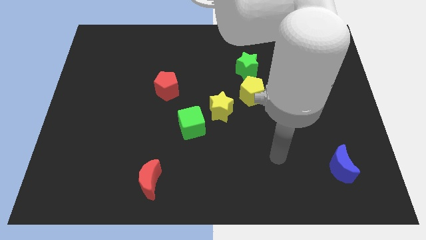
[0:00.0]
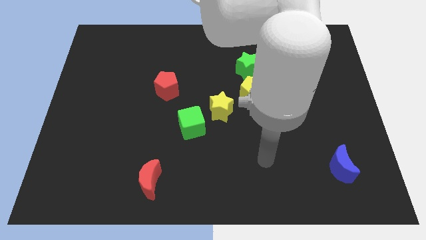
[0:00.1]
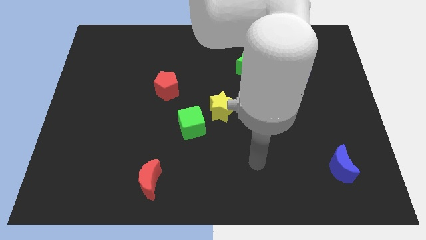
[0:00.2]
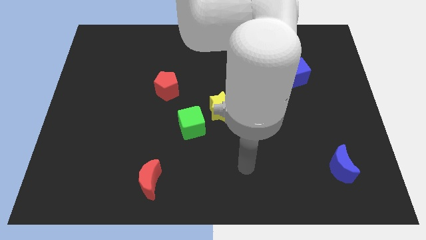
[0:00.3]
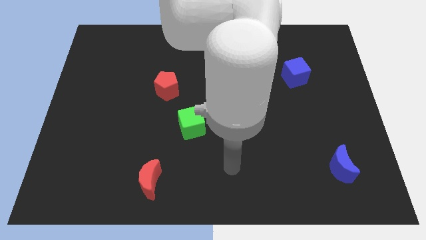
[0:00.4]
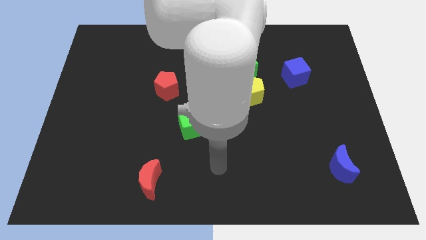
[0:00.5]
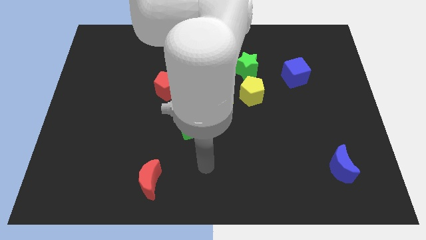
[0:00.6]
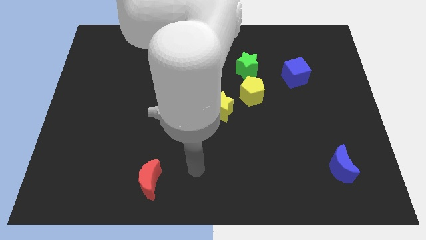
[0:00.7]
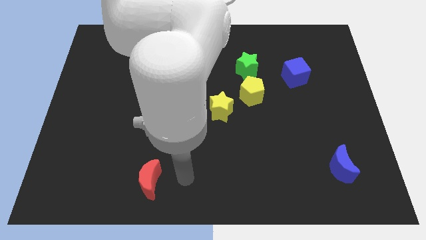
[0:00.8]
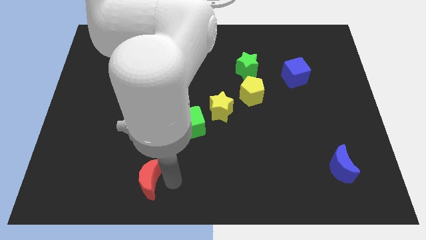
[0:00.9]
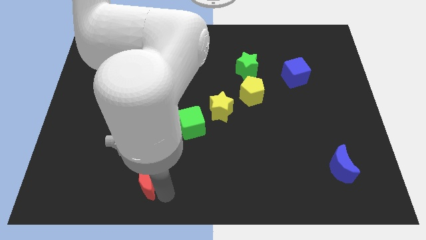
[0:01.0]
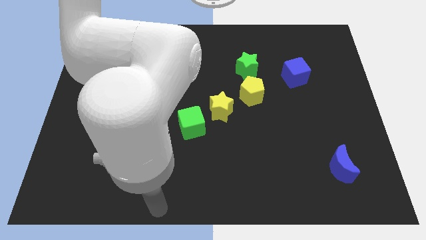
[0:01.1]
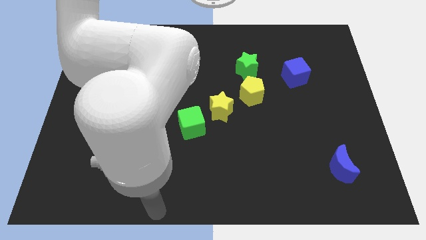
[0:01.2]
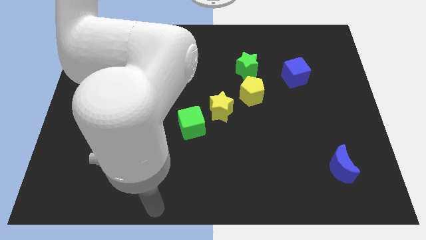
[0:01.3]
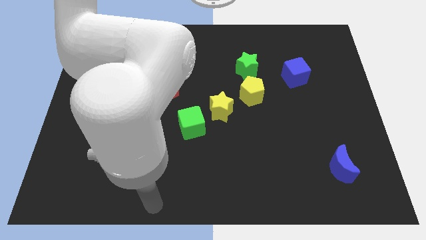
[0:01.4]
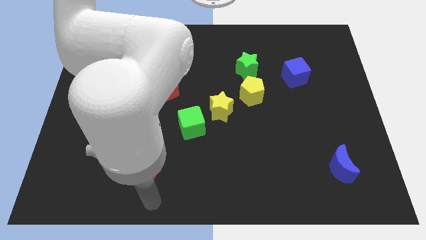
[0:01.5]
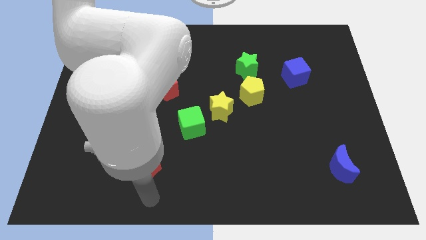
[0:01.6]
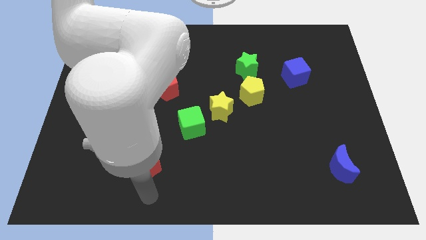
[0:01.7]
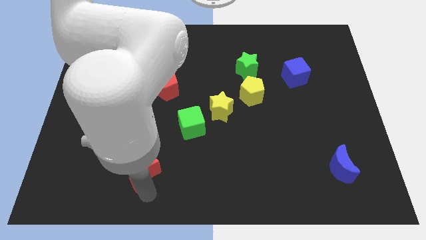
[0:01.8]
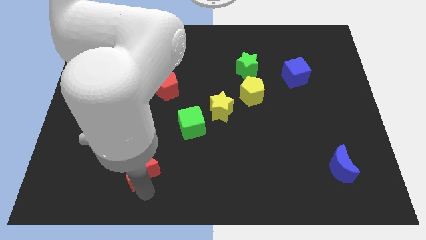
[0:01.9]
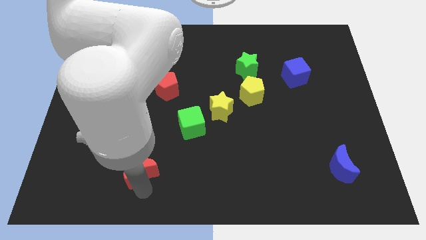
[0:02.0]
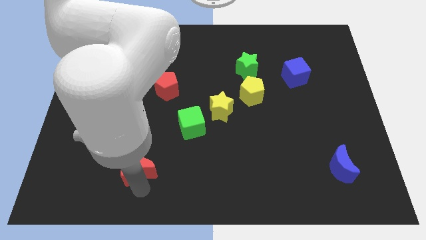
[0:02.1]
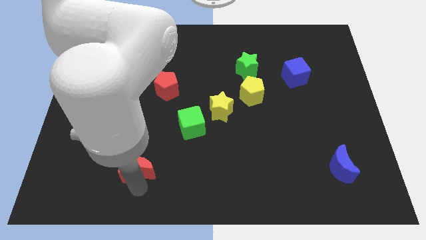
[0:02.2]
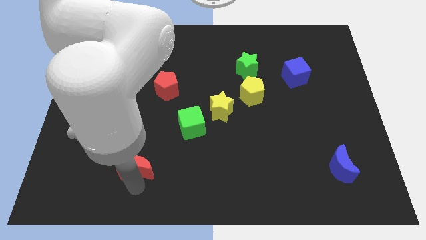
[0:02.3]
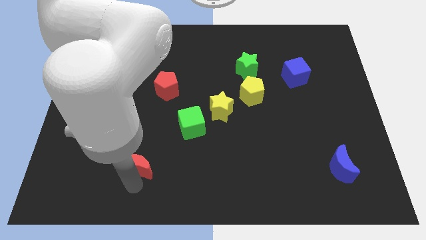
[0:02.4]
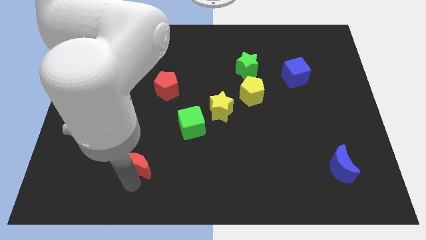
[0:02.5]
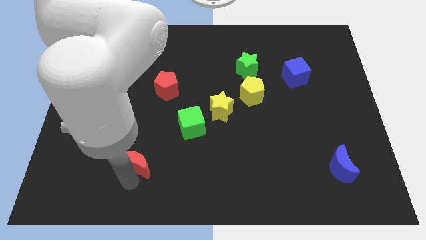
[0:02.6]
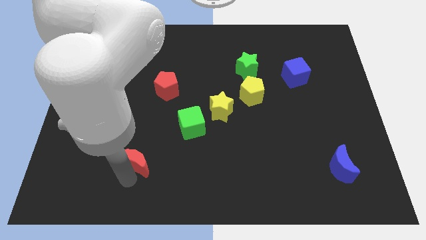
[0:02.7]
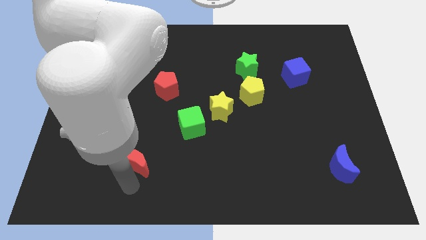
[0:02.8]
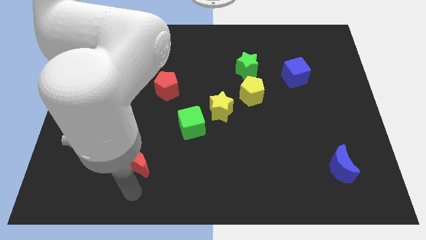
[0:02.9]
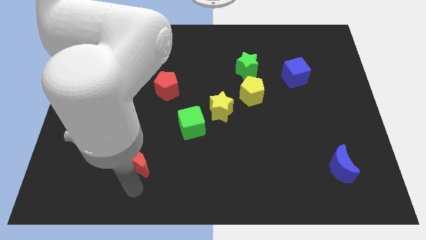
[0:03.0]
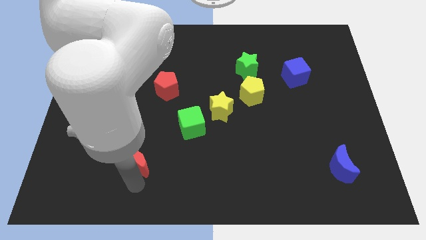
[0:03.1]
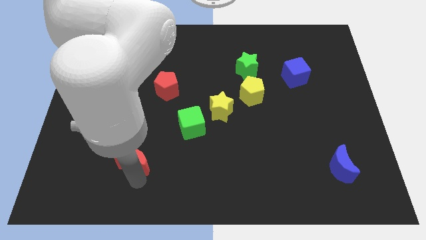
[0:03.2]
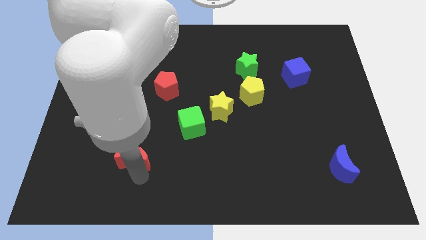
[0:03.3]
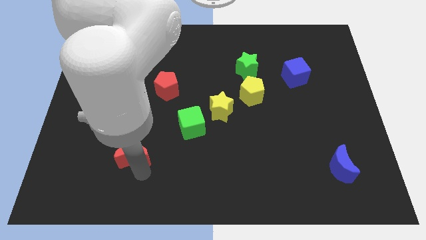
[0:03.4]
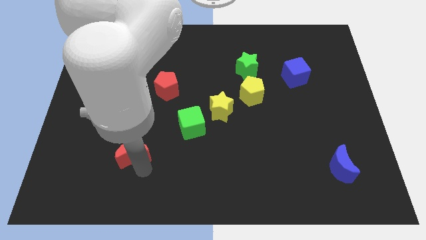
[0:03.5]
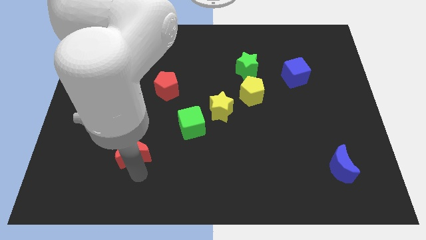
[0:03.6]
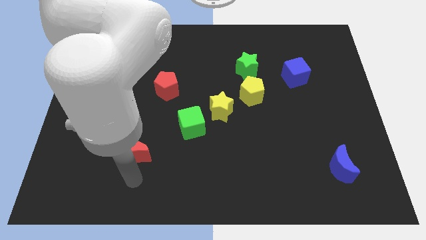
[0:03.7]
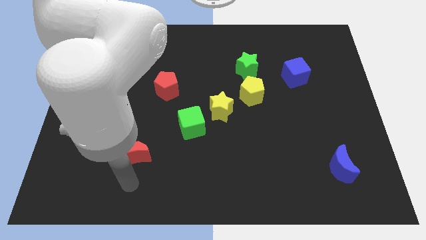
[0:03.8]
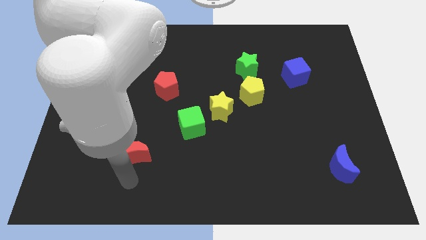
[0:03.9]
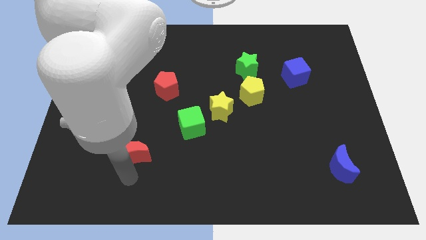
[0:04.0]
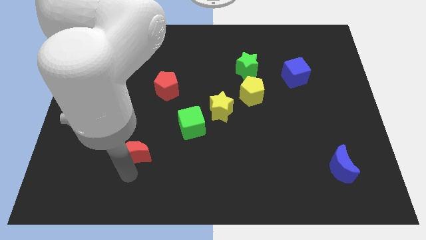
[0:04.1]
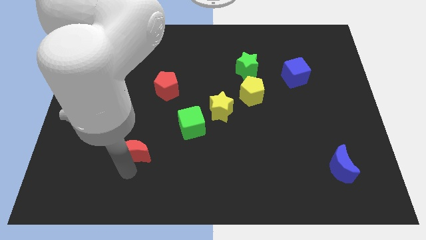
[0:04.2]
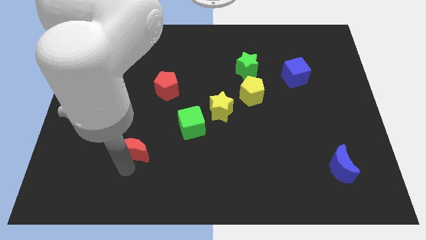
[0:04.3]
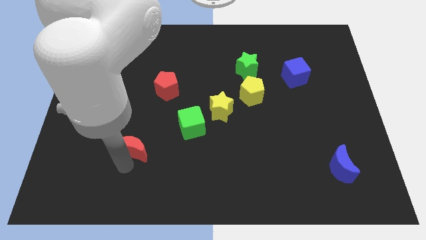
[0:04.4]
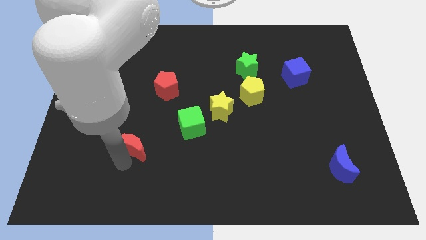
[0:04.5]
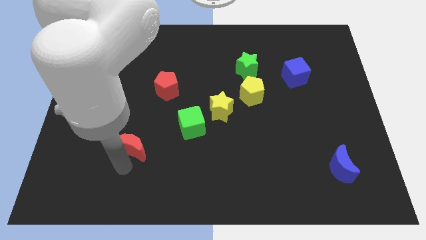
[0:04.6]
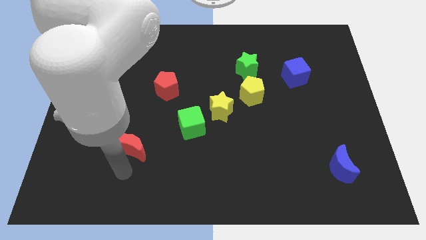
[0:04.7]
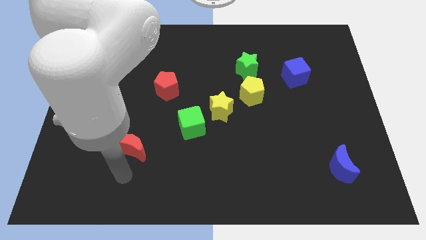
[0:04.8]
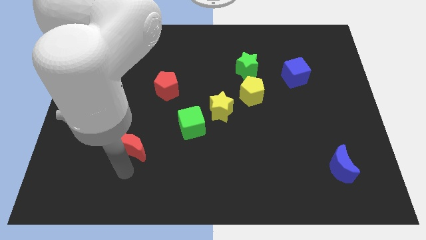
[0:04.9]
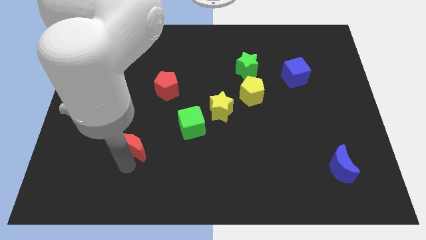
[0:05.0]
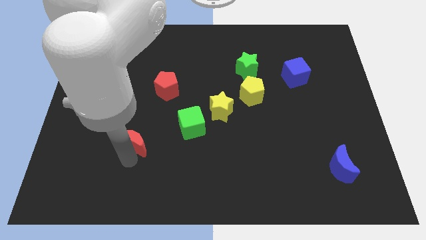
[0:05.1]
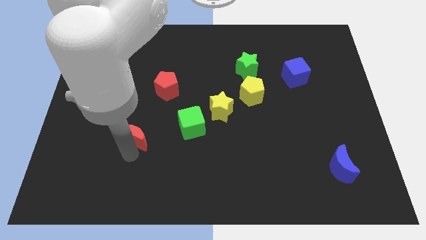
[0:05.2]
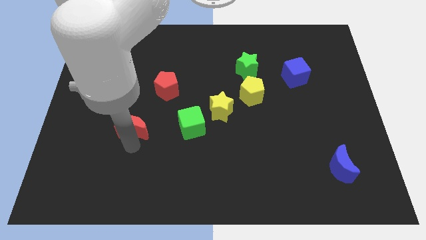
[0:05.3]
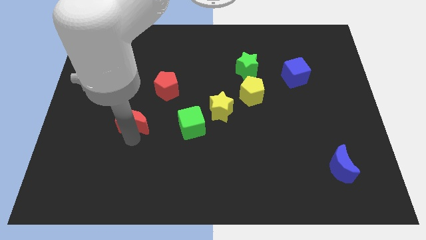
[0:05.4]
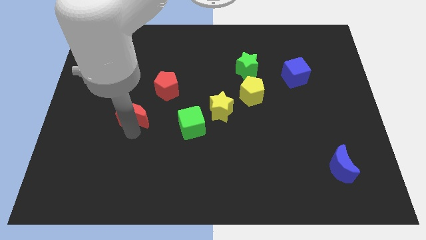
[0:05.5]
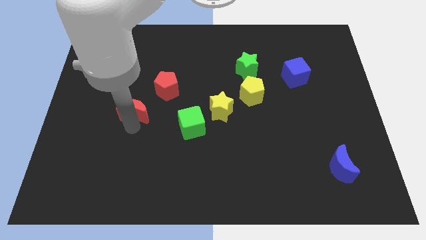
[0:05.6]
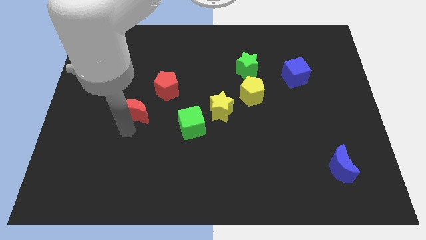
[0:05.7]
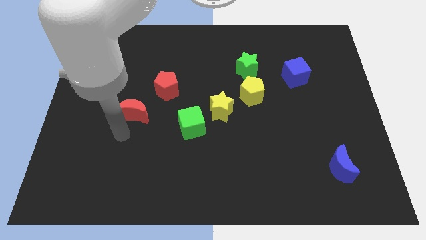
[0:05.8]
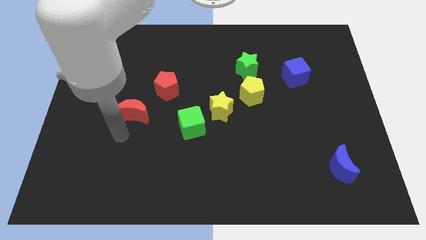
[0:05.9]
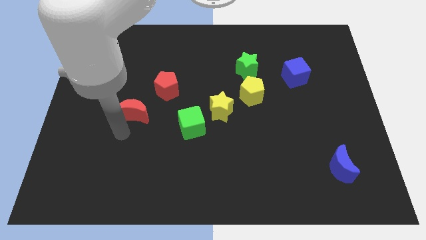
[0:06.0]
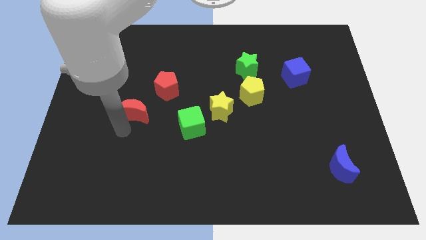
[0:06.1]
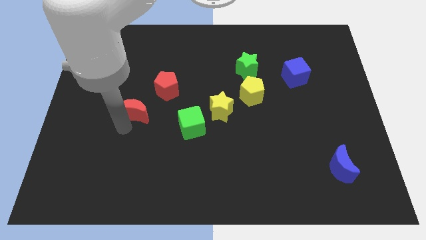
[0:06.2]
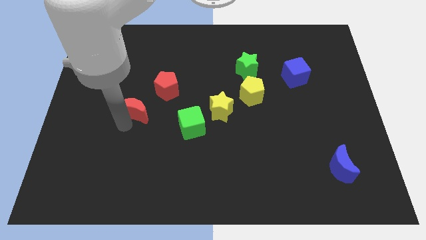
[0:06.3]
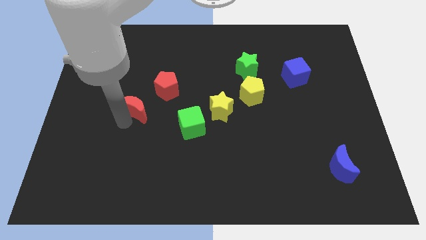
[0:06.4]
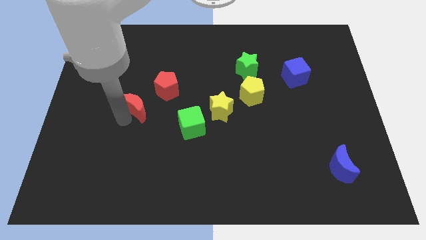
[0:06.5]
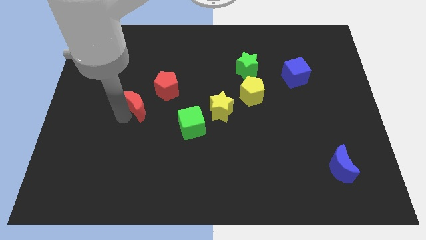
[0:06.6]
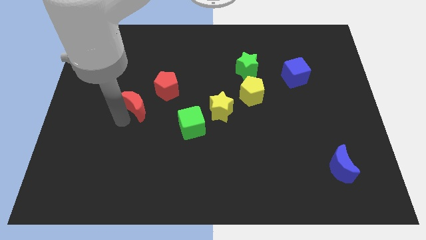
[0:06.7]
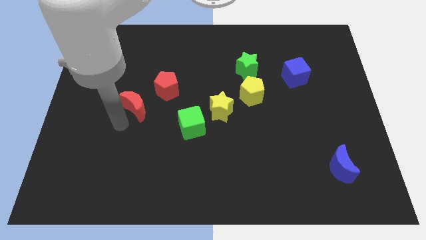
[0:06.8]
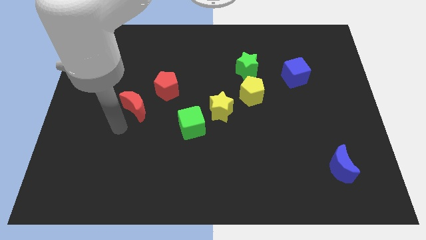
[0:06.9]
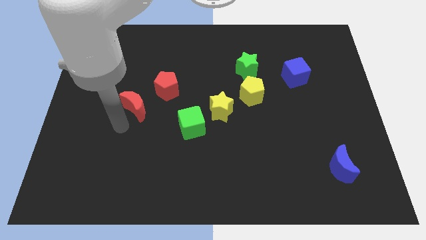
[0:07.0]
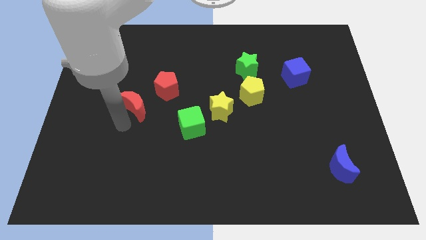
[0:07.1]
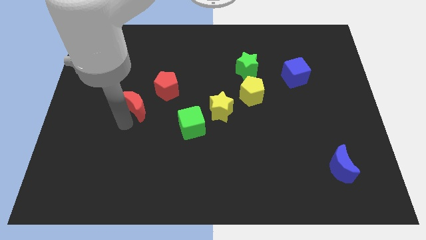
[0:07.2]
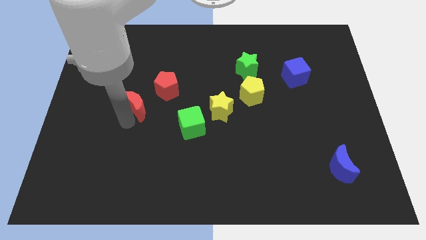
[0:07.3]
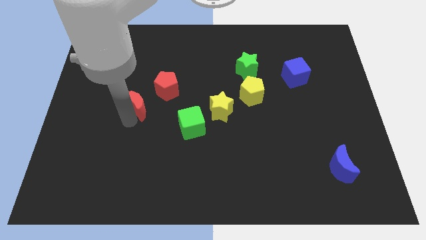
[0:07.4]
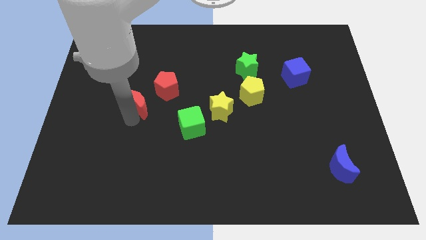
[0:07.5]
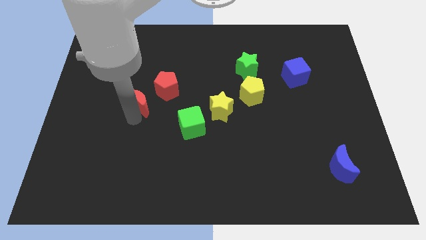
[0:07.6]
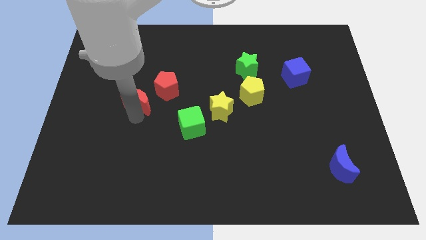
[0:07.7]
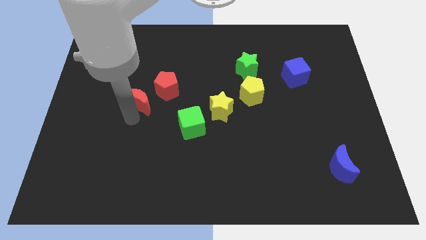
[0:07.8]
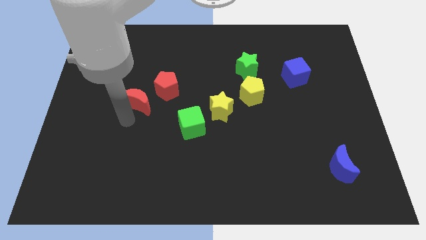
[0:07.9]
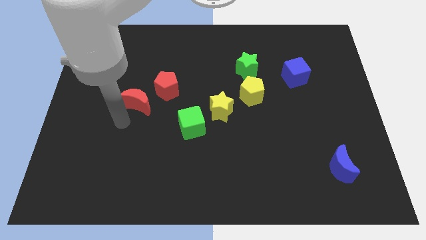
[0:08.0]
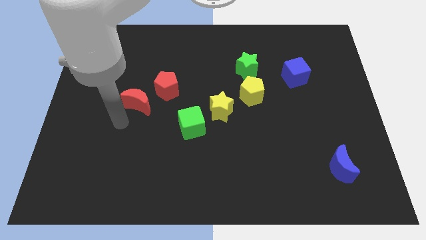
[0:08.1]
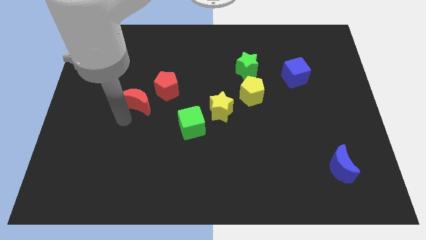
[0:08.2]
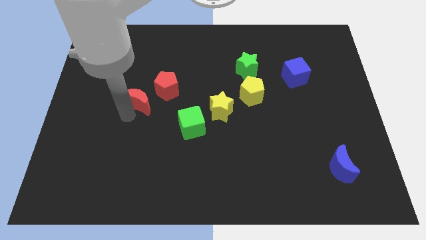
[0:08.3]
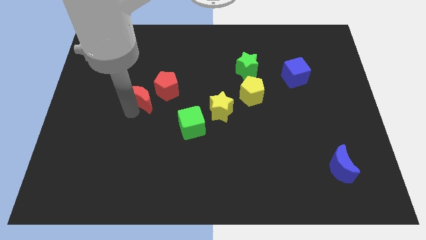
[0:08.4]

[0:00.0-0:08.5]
move the red moon up

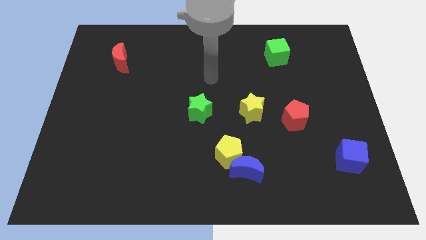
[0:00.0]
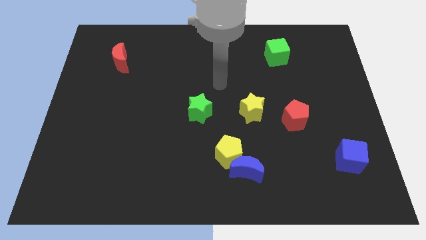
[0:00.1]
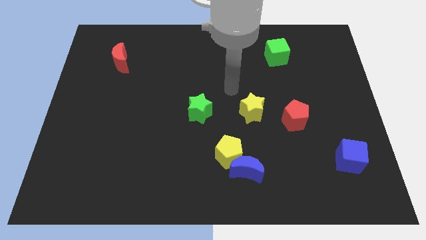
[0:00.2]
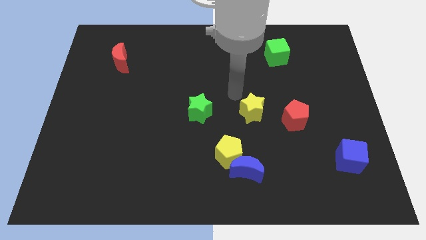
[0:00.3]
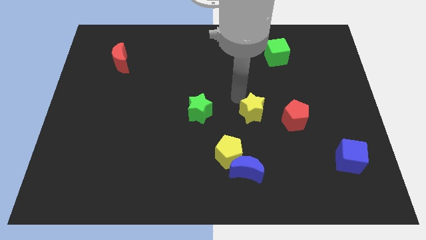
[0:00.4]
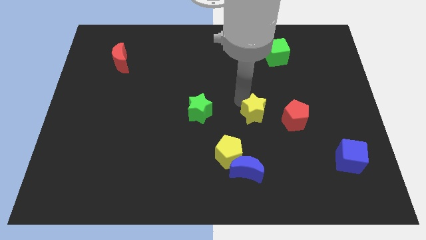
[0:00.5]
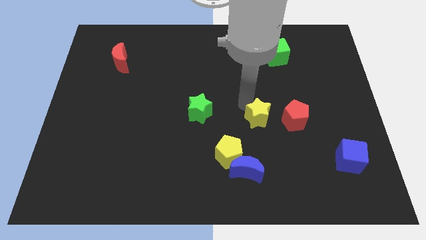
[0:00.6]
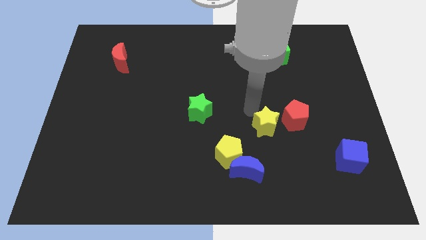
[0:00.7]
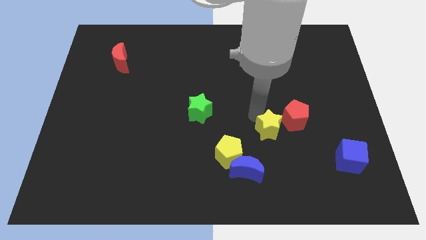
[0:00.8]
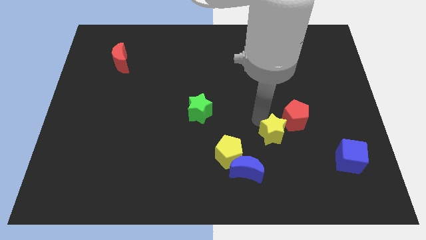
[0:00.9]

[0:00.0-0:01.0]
push the yellow star slightly down and to the right
